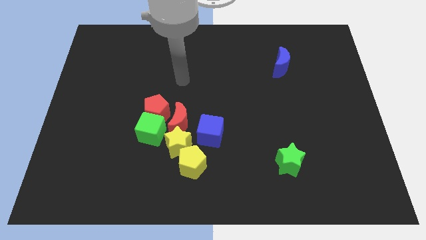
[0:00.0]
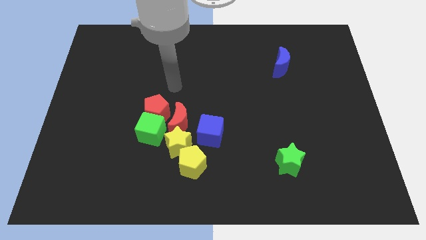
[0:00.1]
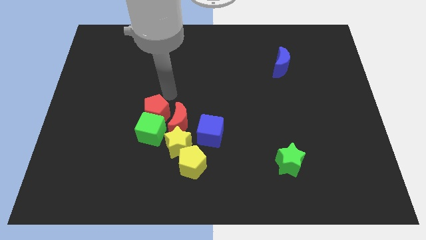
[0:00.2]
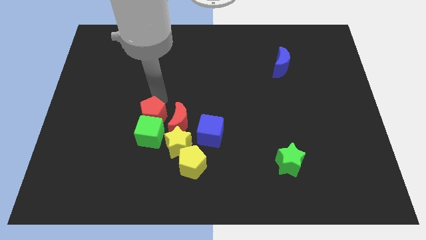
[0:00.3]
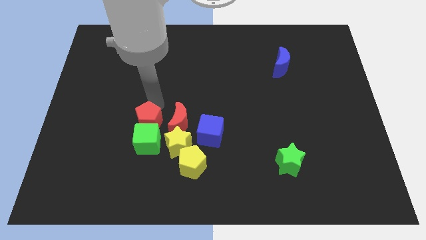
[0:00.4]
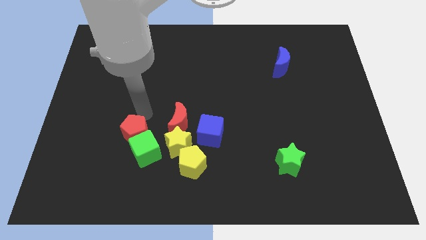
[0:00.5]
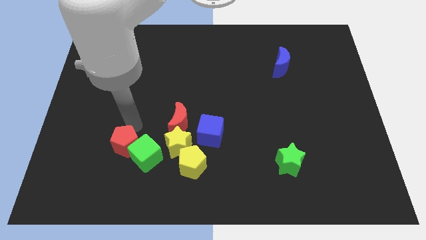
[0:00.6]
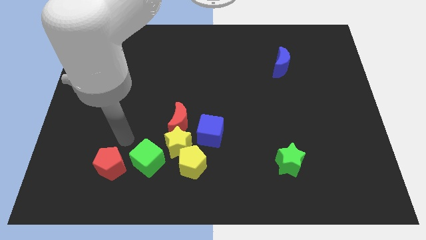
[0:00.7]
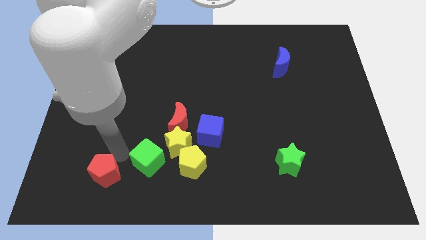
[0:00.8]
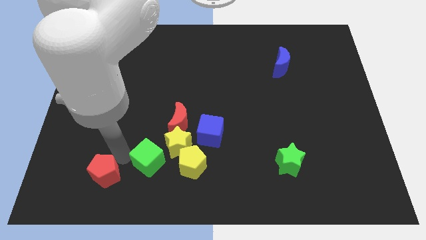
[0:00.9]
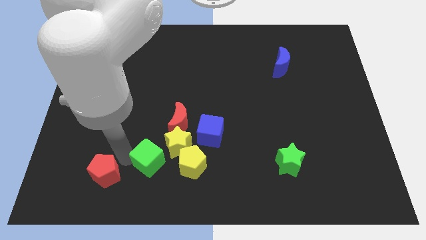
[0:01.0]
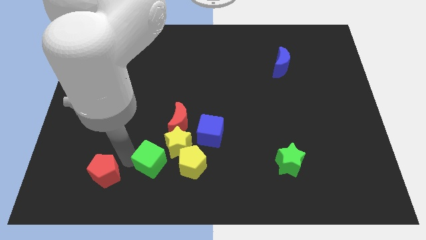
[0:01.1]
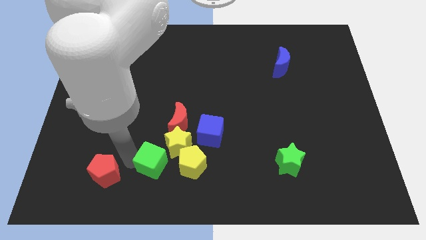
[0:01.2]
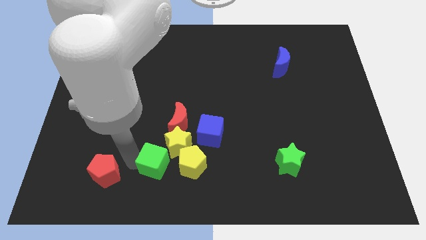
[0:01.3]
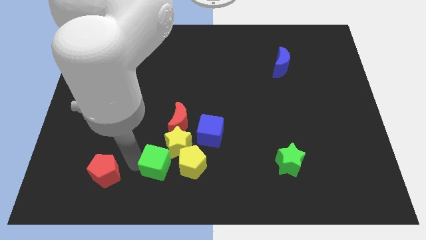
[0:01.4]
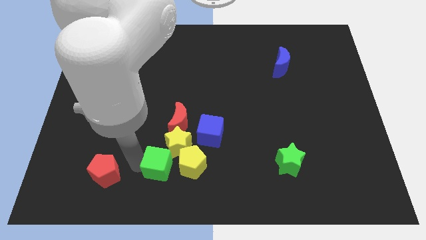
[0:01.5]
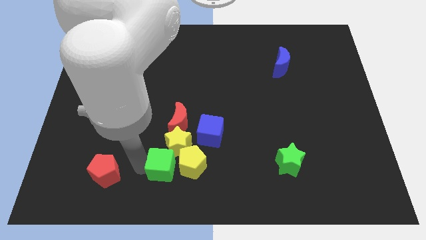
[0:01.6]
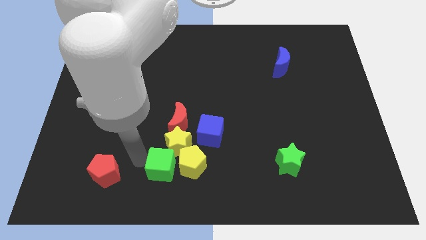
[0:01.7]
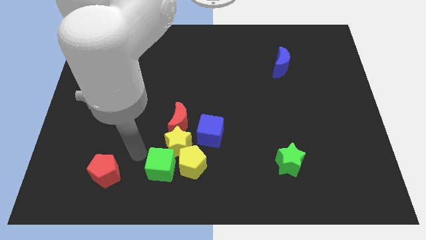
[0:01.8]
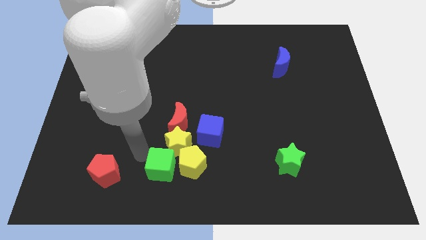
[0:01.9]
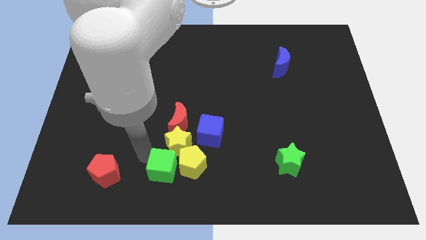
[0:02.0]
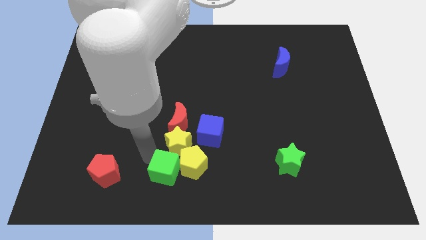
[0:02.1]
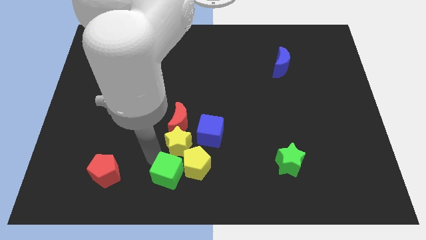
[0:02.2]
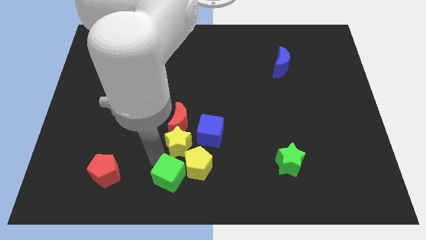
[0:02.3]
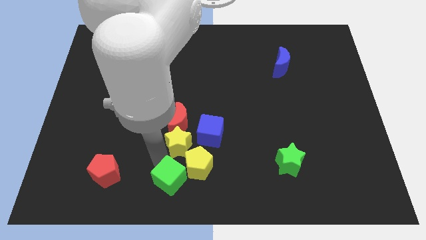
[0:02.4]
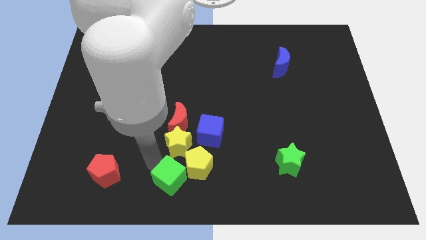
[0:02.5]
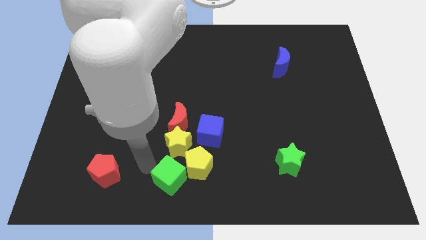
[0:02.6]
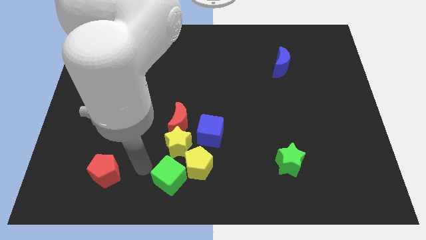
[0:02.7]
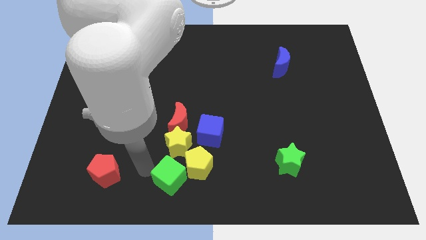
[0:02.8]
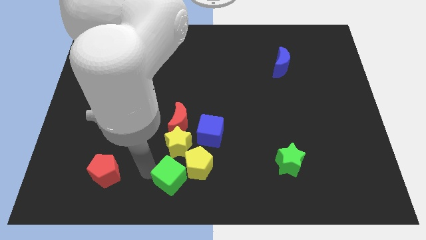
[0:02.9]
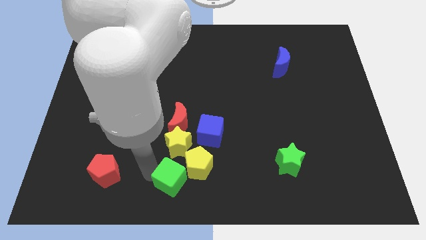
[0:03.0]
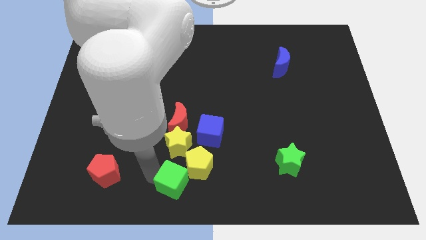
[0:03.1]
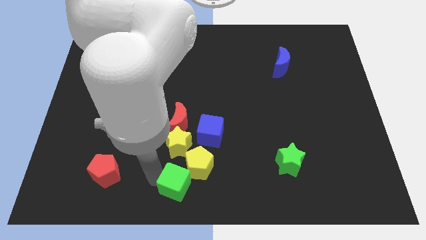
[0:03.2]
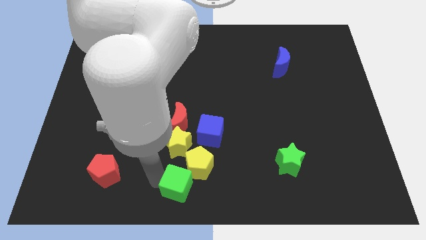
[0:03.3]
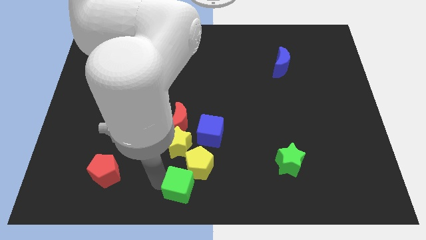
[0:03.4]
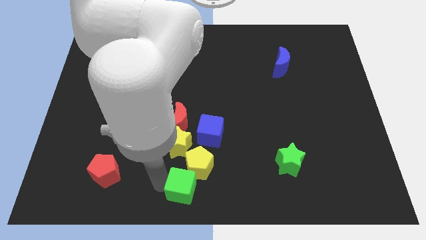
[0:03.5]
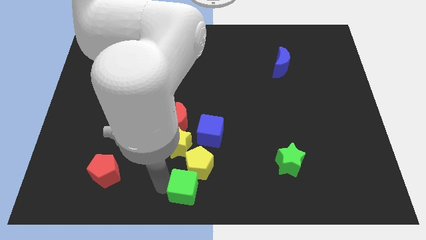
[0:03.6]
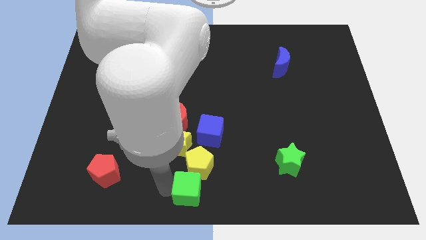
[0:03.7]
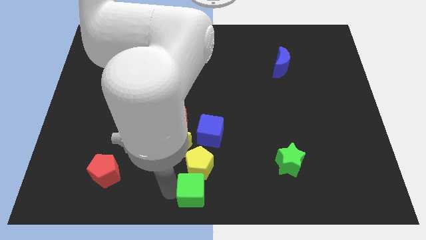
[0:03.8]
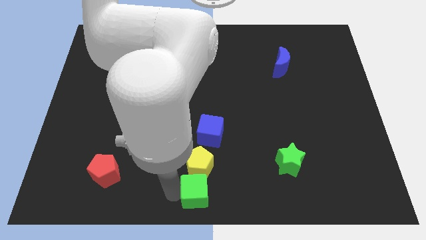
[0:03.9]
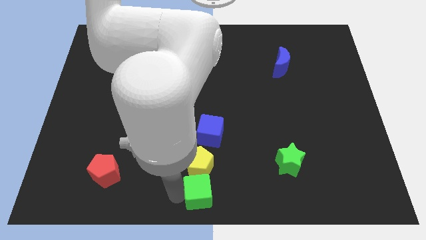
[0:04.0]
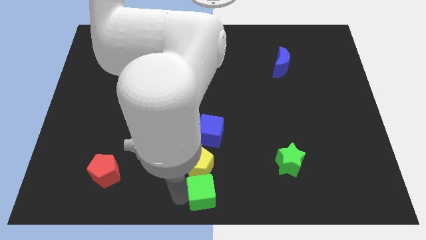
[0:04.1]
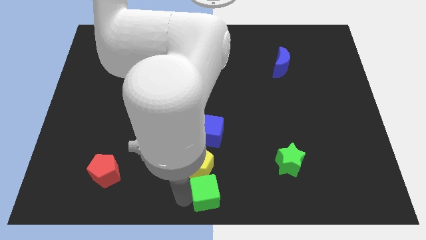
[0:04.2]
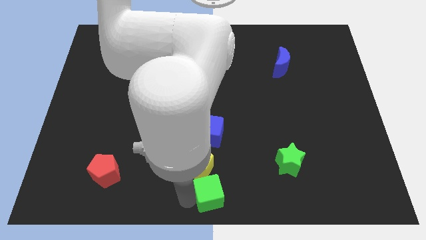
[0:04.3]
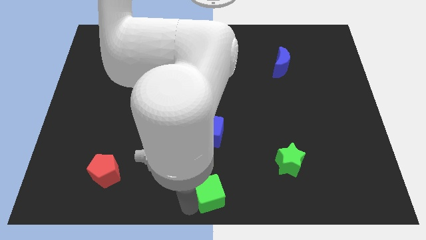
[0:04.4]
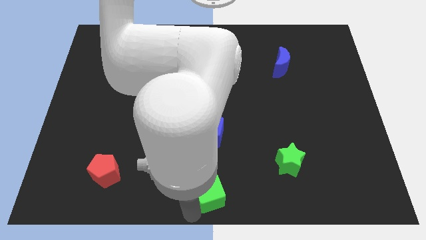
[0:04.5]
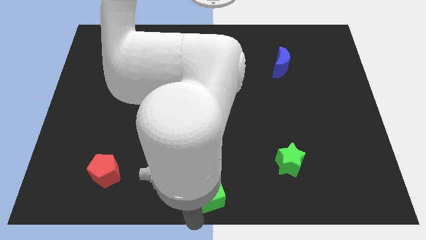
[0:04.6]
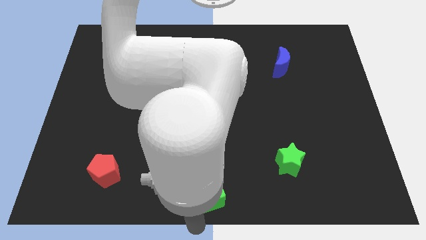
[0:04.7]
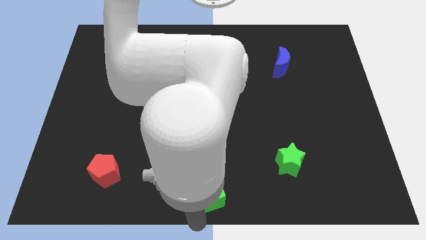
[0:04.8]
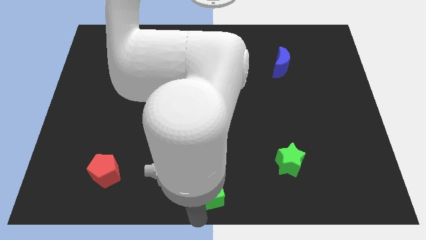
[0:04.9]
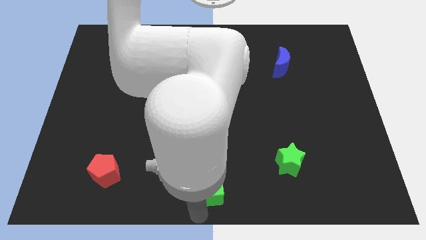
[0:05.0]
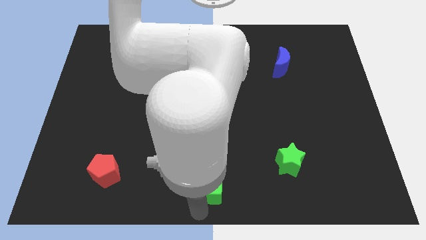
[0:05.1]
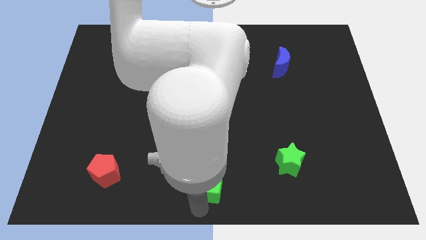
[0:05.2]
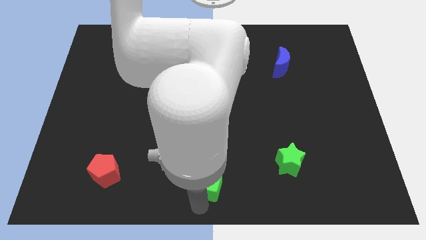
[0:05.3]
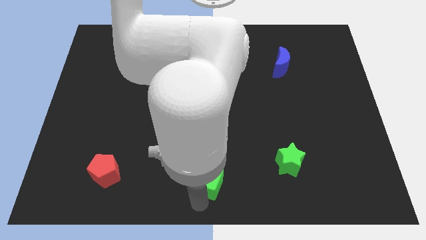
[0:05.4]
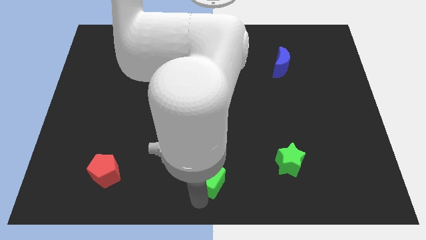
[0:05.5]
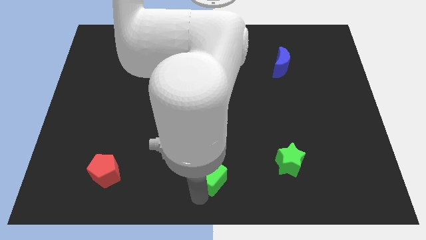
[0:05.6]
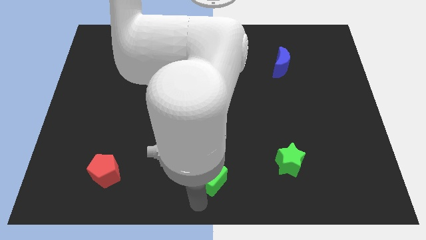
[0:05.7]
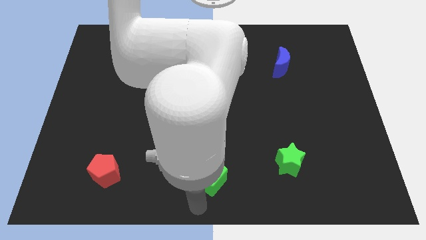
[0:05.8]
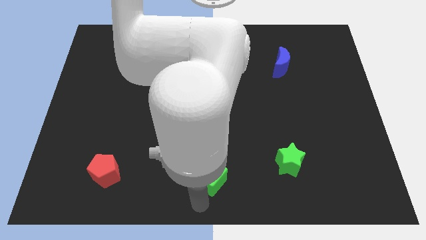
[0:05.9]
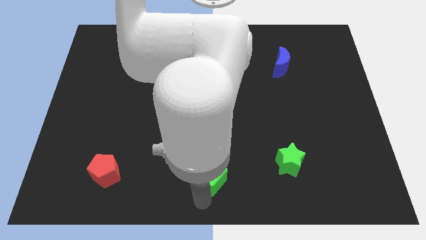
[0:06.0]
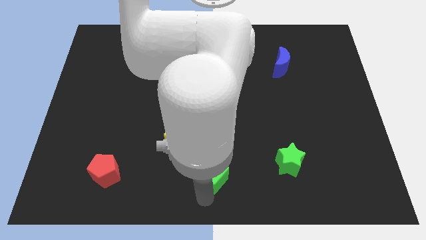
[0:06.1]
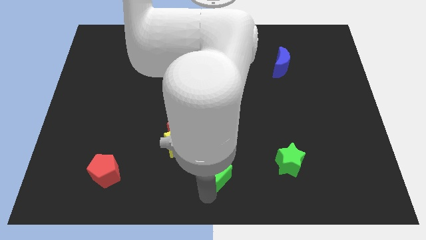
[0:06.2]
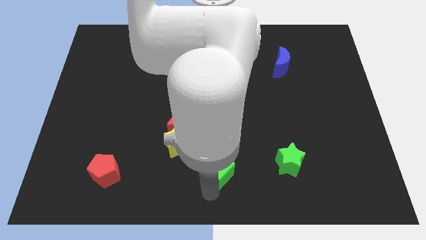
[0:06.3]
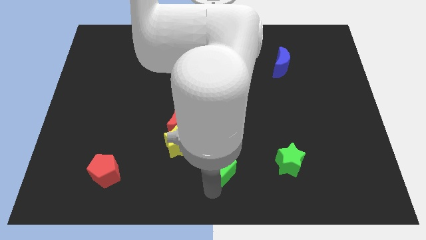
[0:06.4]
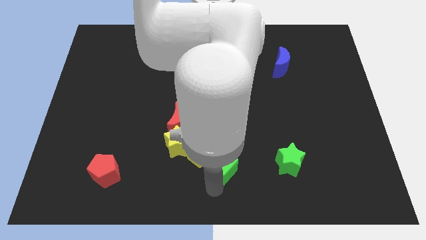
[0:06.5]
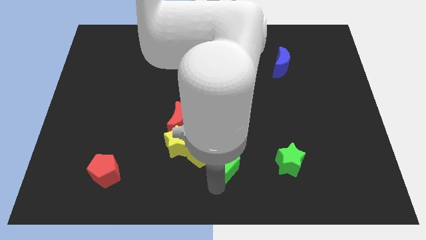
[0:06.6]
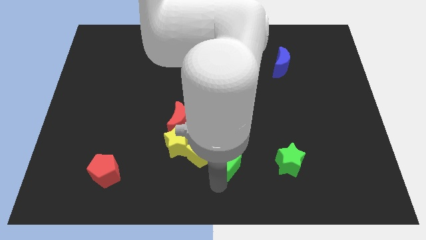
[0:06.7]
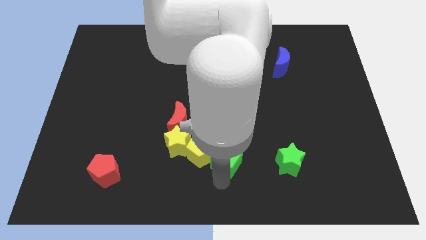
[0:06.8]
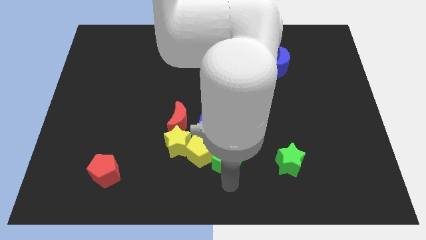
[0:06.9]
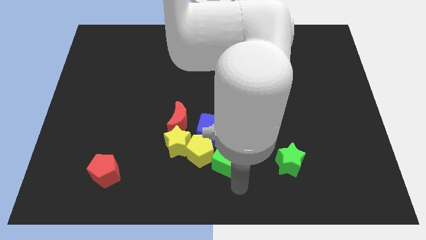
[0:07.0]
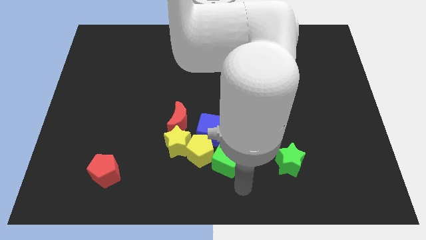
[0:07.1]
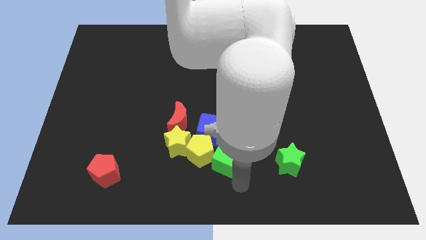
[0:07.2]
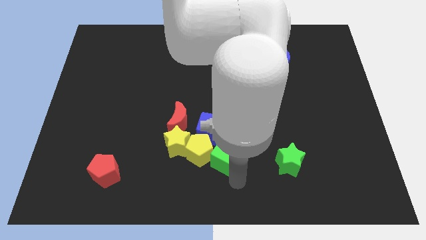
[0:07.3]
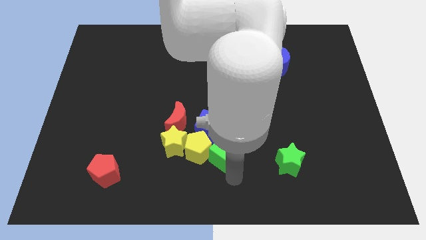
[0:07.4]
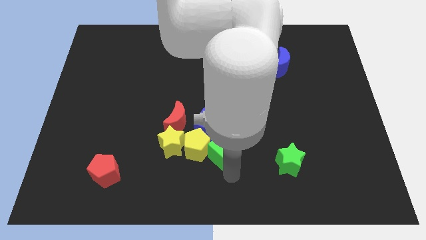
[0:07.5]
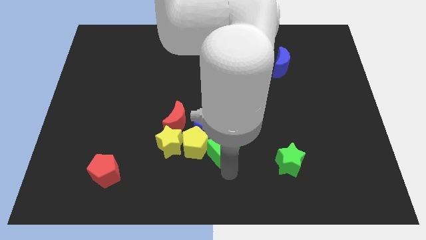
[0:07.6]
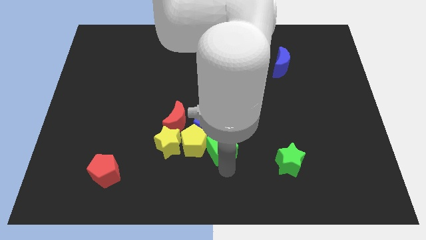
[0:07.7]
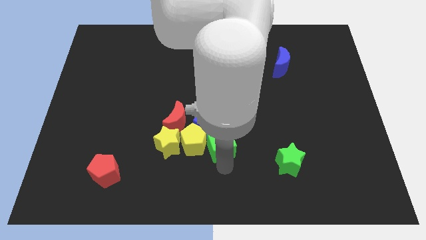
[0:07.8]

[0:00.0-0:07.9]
move the green cube towards the blue cube
